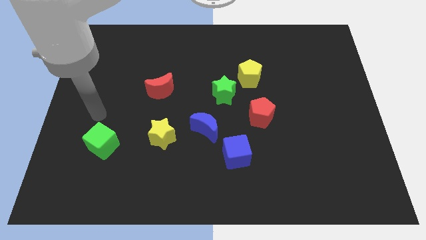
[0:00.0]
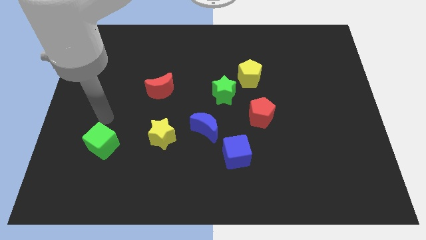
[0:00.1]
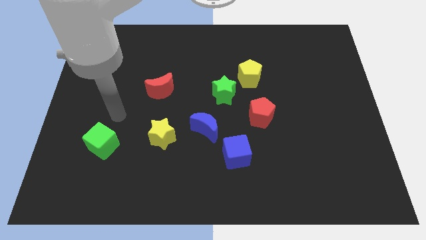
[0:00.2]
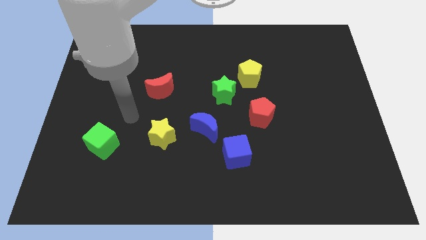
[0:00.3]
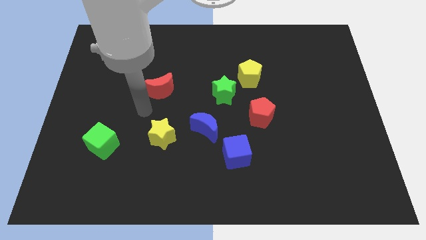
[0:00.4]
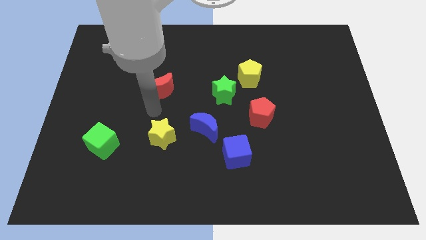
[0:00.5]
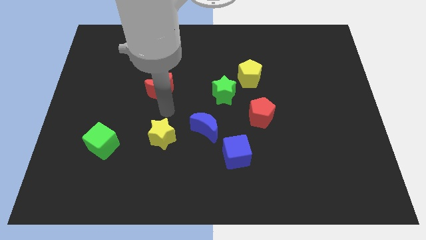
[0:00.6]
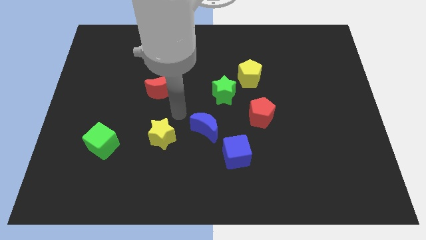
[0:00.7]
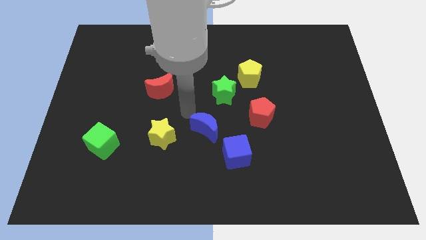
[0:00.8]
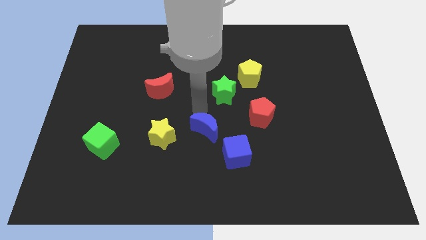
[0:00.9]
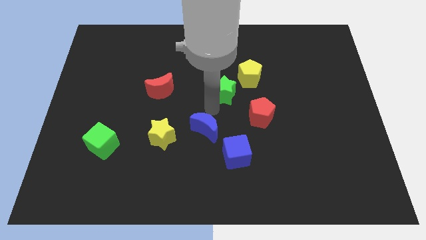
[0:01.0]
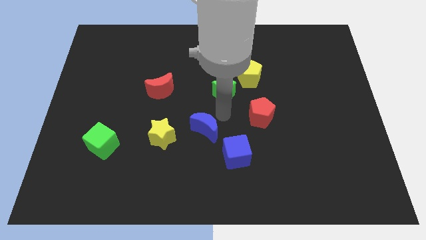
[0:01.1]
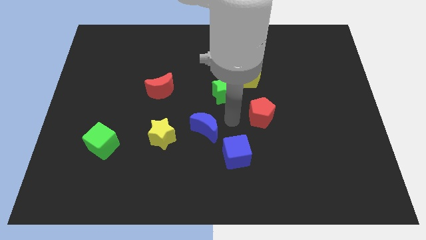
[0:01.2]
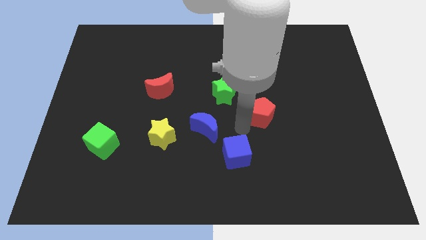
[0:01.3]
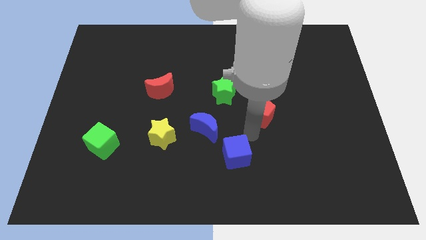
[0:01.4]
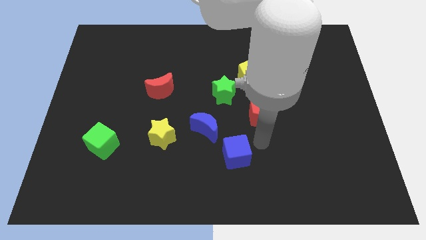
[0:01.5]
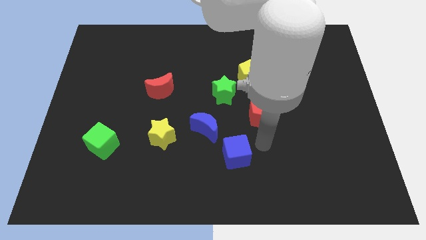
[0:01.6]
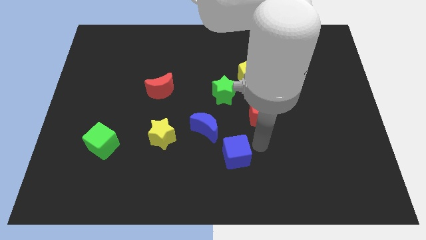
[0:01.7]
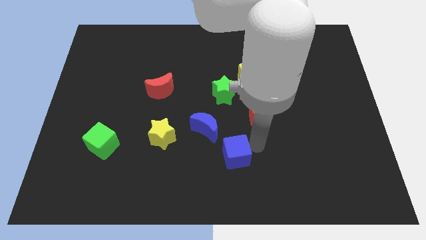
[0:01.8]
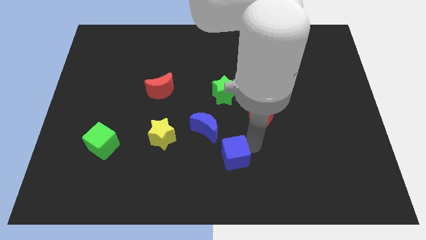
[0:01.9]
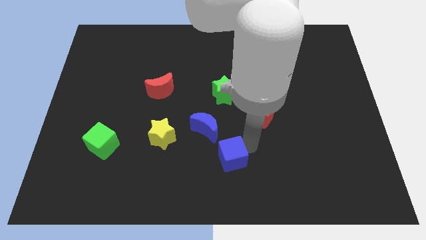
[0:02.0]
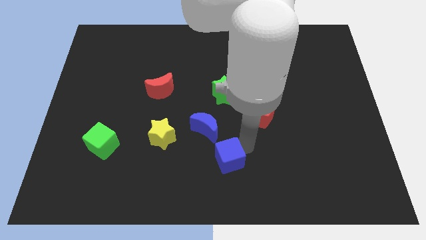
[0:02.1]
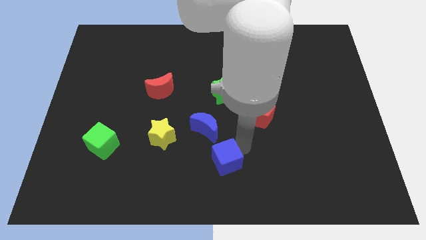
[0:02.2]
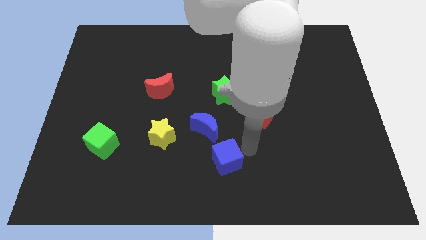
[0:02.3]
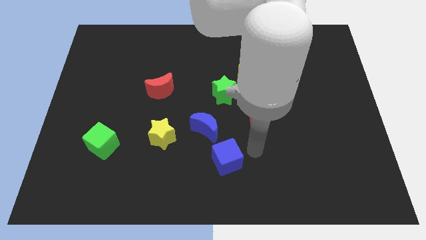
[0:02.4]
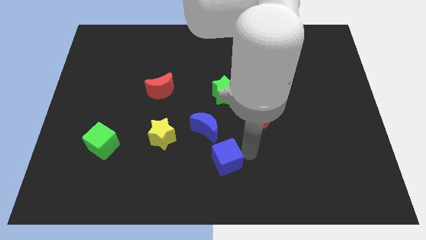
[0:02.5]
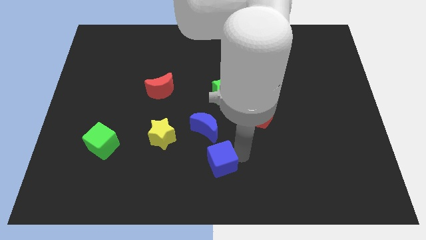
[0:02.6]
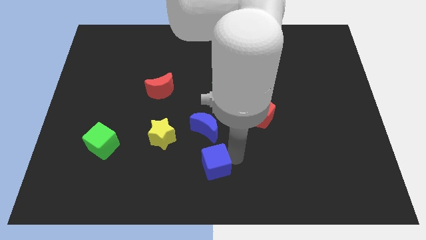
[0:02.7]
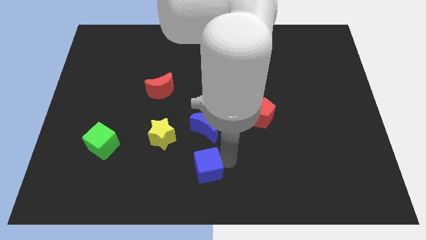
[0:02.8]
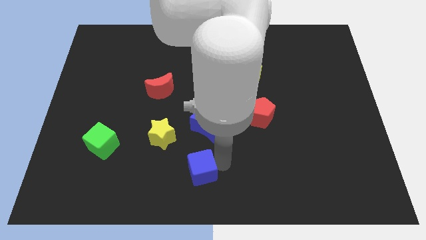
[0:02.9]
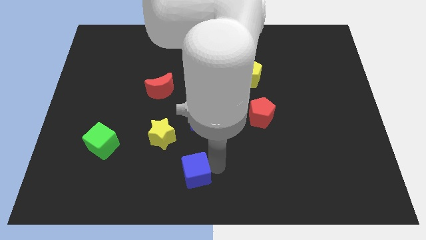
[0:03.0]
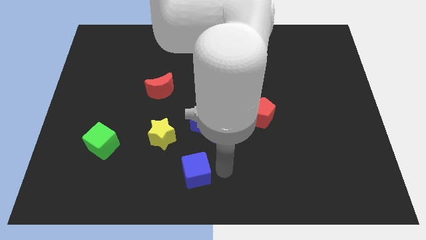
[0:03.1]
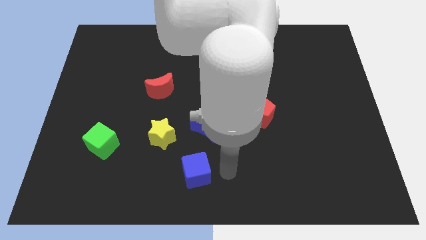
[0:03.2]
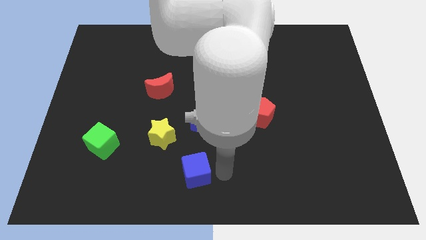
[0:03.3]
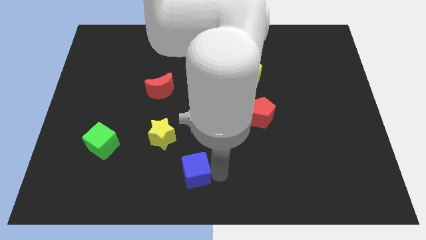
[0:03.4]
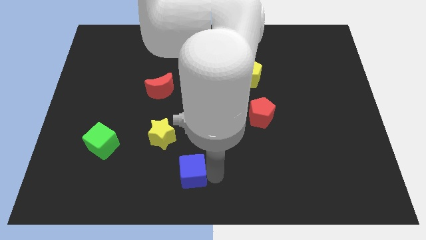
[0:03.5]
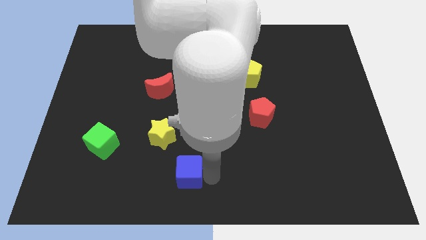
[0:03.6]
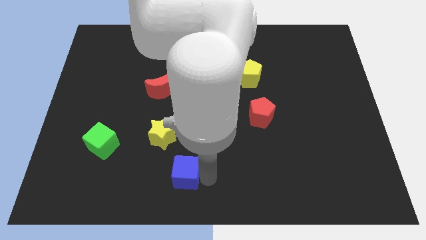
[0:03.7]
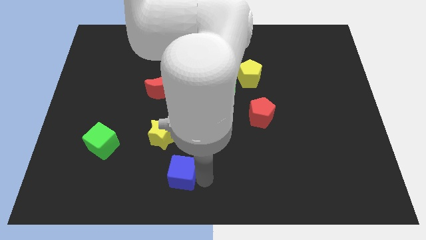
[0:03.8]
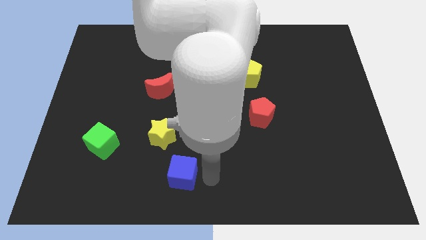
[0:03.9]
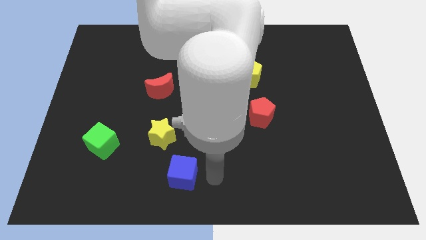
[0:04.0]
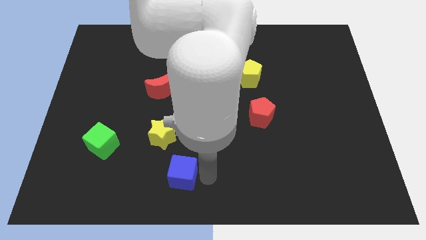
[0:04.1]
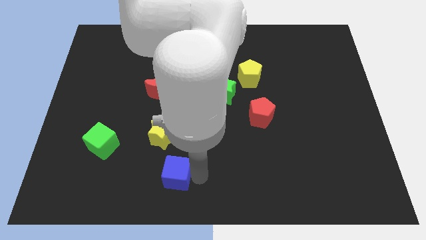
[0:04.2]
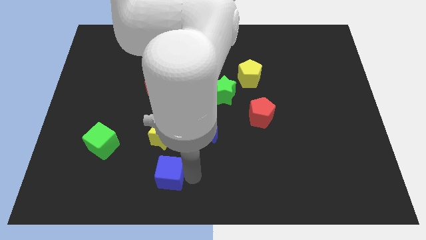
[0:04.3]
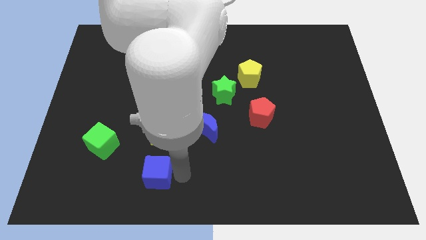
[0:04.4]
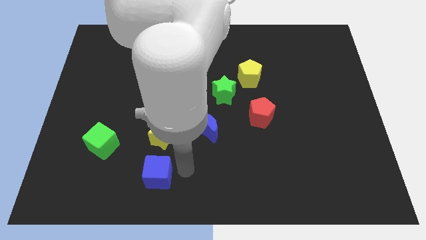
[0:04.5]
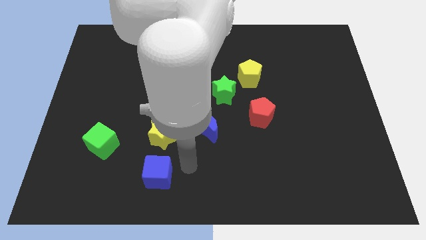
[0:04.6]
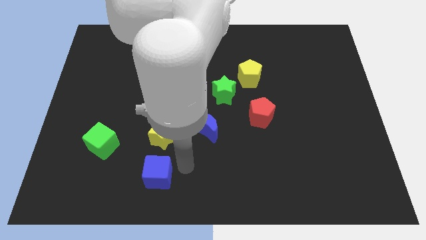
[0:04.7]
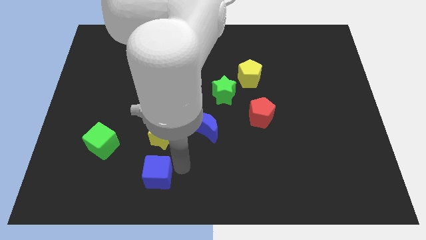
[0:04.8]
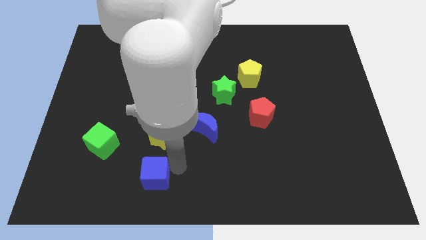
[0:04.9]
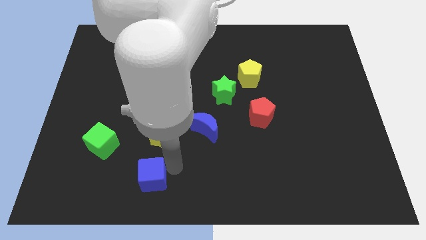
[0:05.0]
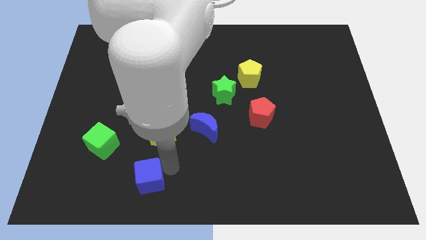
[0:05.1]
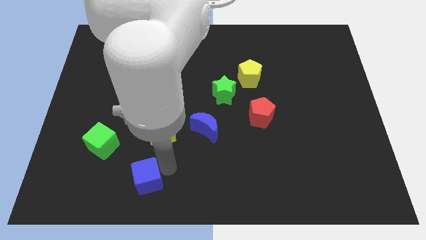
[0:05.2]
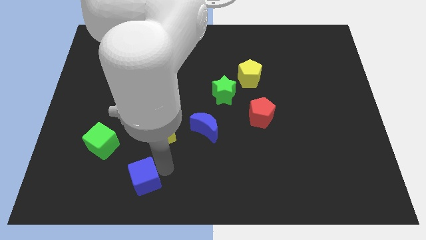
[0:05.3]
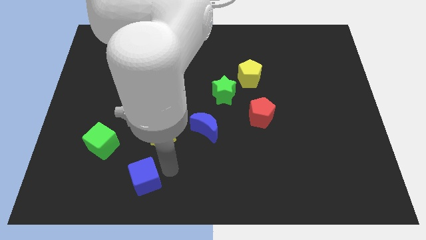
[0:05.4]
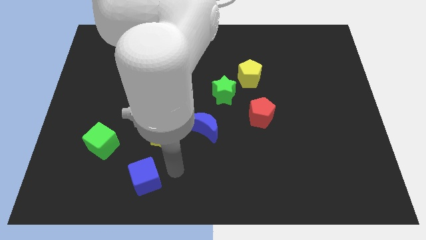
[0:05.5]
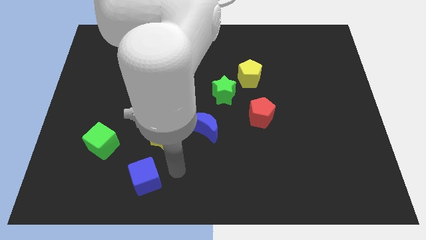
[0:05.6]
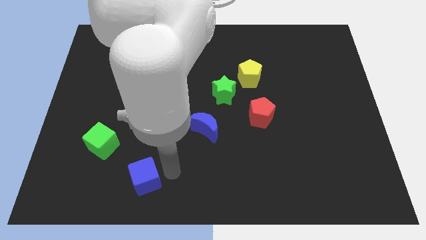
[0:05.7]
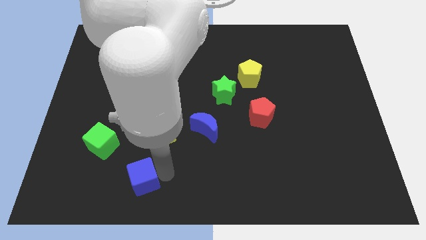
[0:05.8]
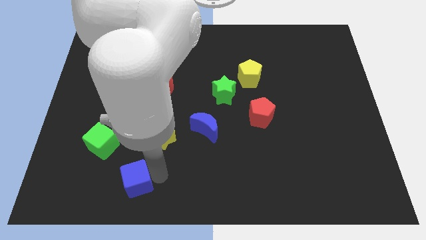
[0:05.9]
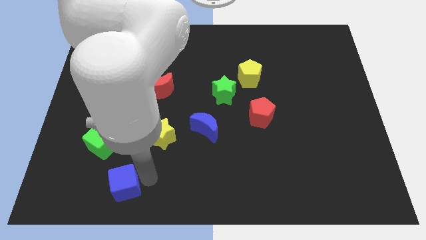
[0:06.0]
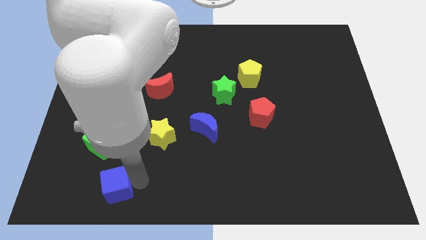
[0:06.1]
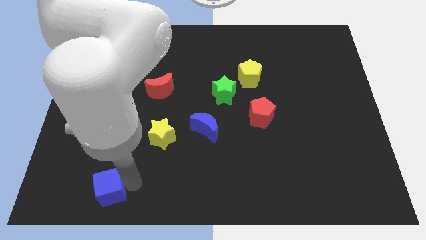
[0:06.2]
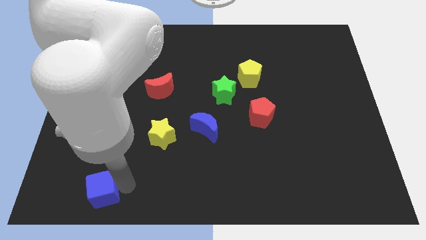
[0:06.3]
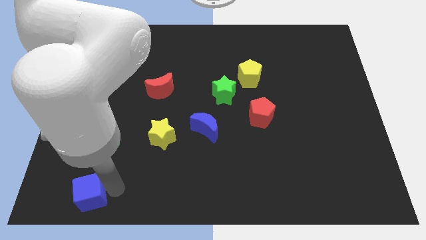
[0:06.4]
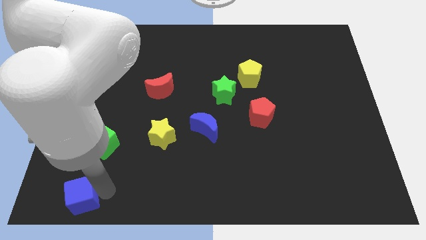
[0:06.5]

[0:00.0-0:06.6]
push the blue cube to the bottom left corner
